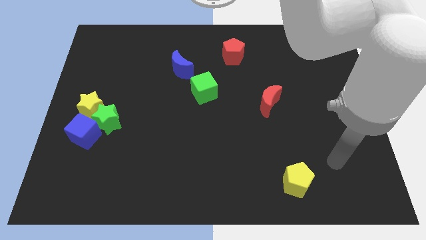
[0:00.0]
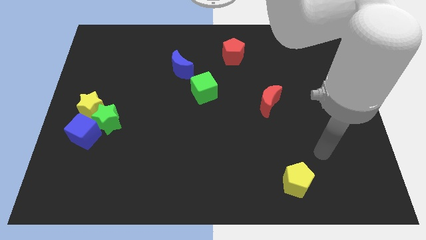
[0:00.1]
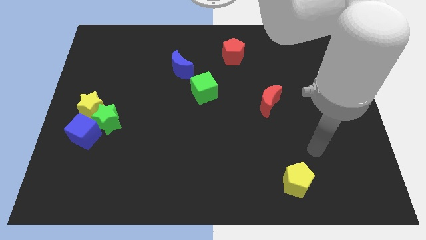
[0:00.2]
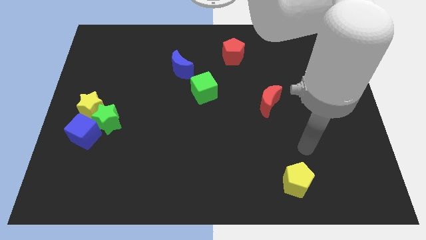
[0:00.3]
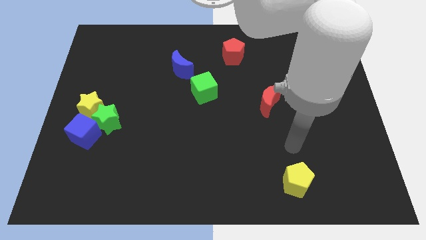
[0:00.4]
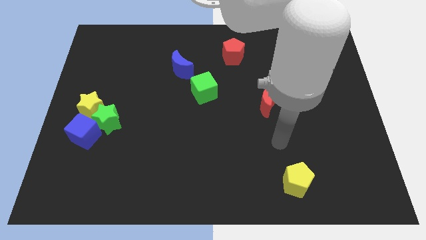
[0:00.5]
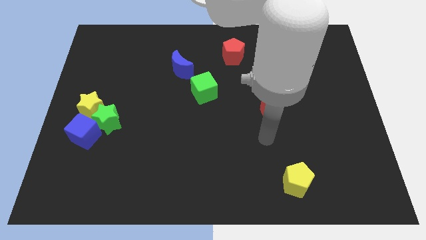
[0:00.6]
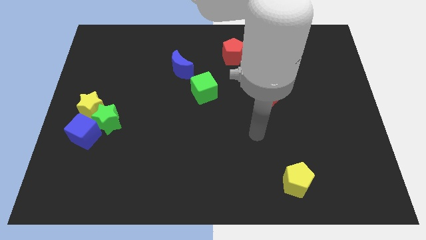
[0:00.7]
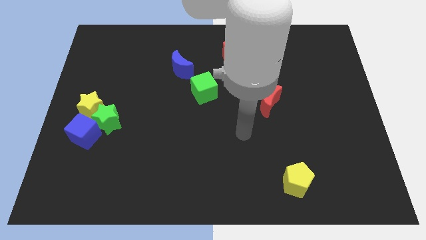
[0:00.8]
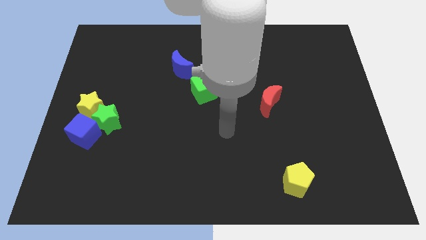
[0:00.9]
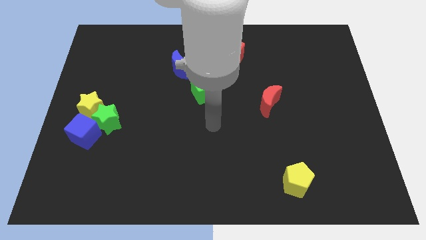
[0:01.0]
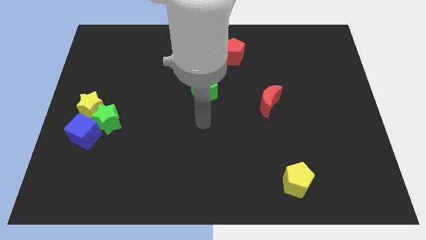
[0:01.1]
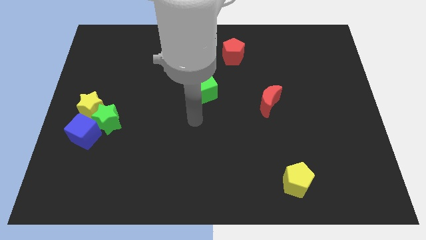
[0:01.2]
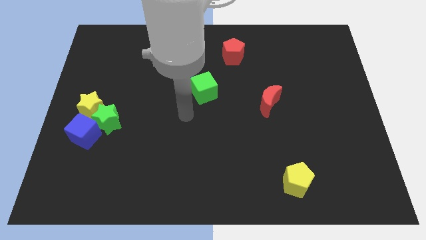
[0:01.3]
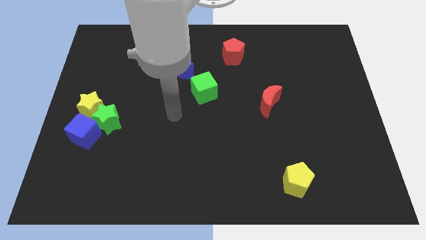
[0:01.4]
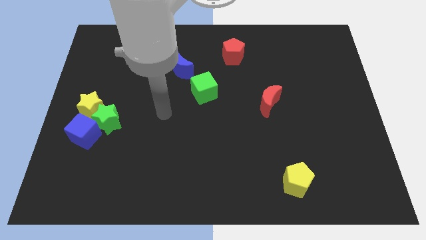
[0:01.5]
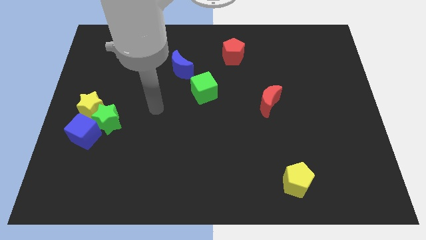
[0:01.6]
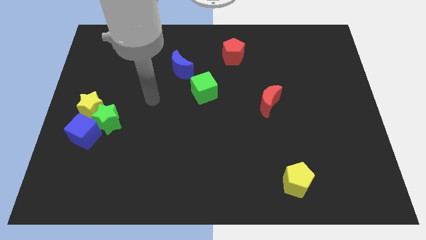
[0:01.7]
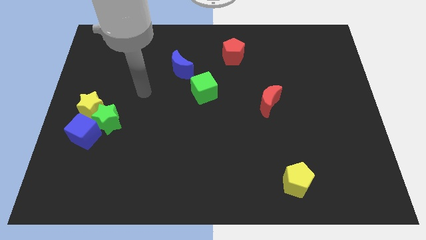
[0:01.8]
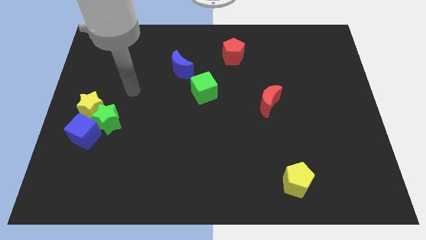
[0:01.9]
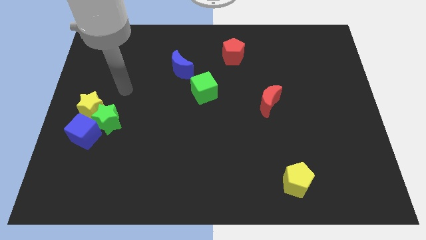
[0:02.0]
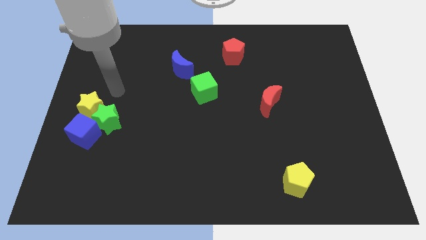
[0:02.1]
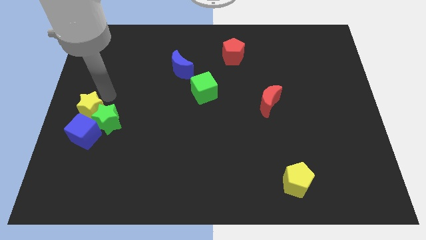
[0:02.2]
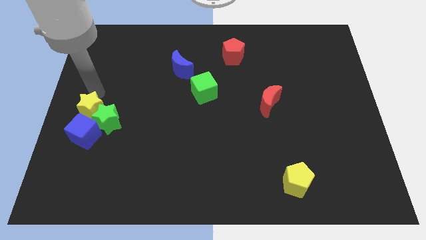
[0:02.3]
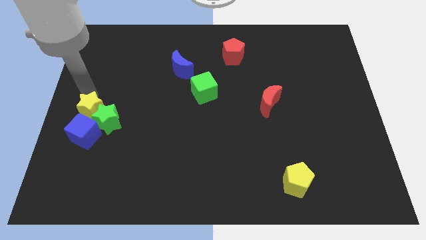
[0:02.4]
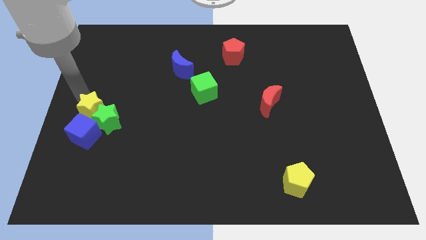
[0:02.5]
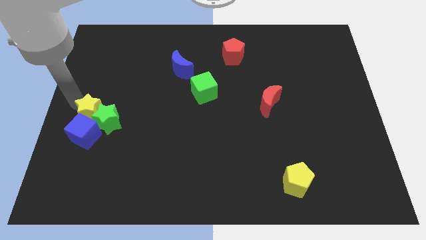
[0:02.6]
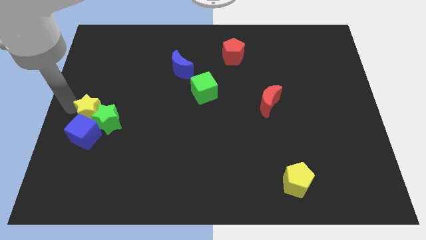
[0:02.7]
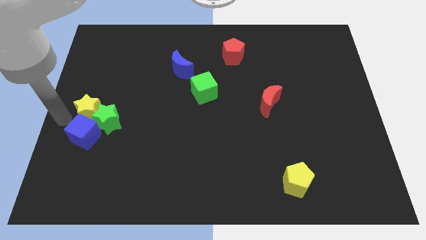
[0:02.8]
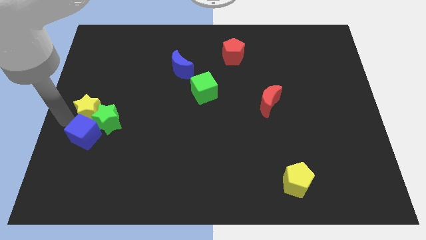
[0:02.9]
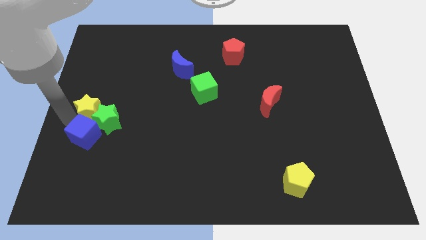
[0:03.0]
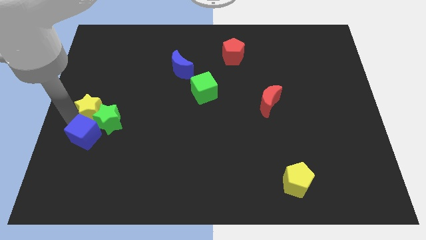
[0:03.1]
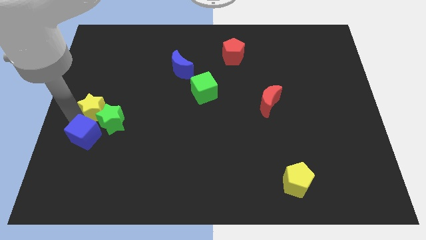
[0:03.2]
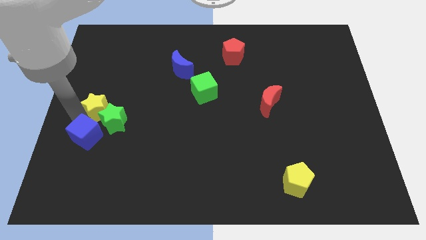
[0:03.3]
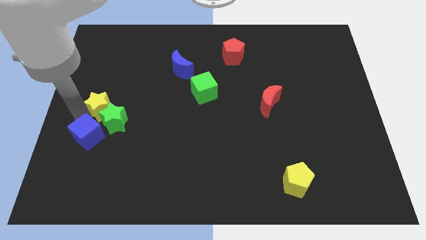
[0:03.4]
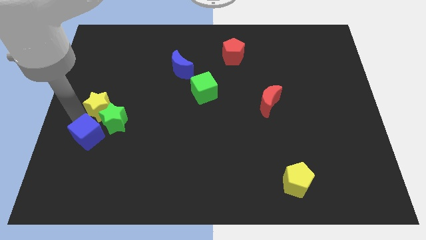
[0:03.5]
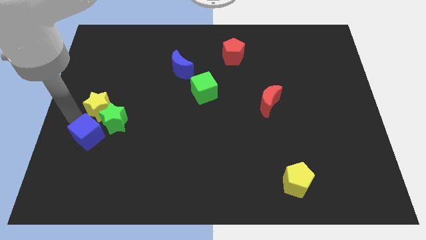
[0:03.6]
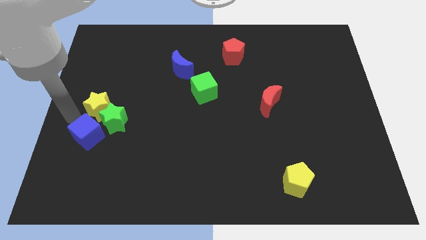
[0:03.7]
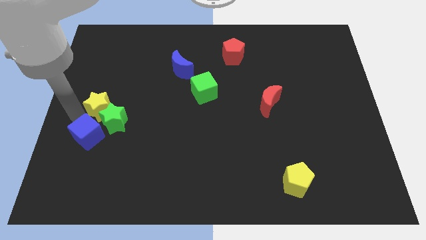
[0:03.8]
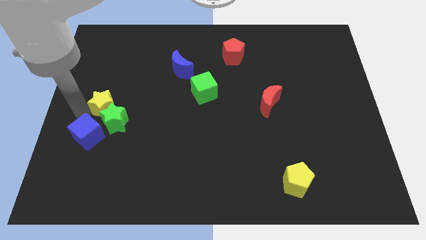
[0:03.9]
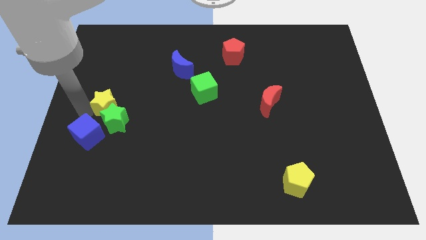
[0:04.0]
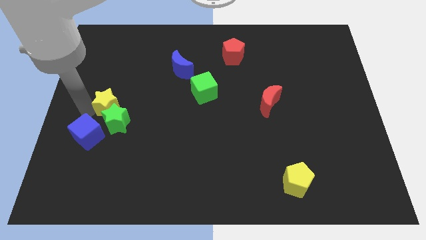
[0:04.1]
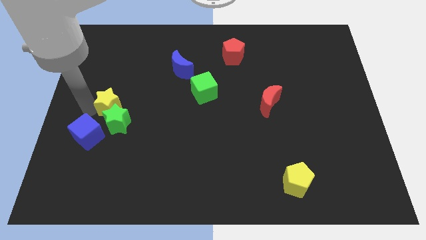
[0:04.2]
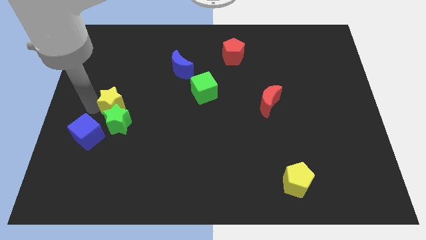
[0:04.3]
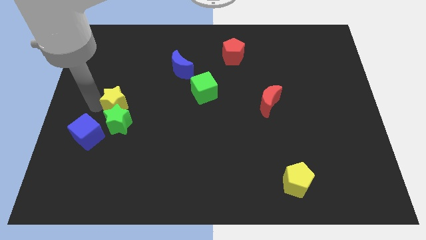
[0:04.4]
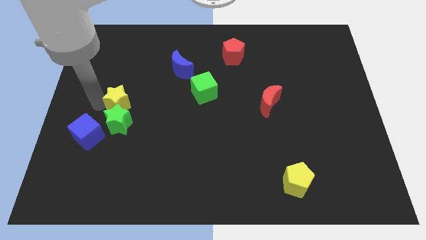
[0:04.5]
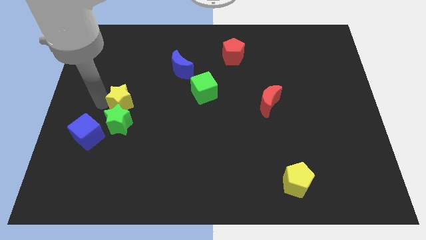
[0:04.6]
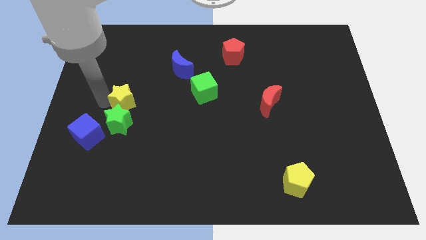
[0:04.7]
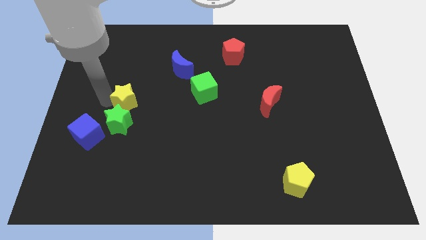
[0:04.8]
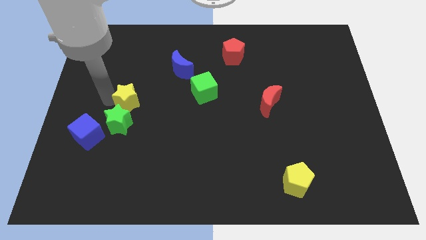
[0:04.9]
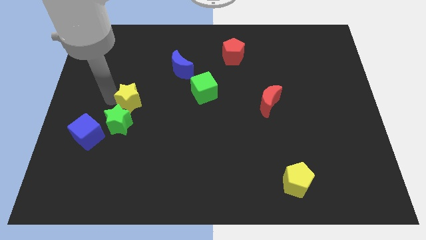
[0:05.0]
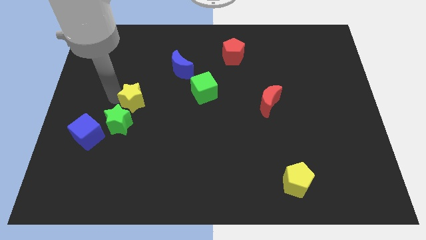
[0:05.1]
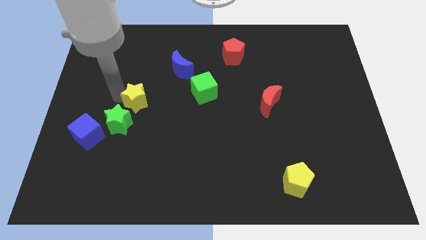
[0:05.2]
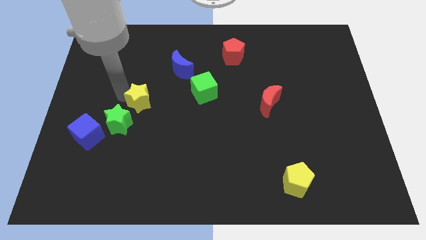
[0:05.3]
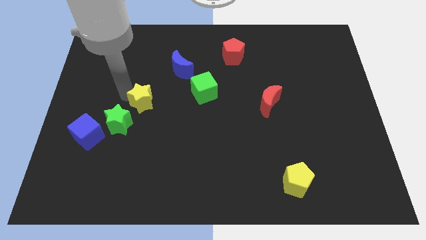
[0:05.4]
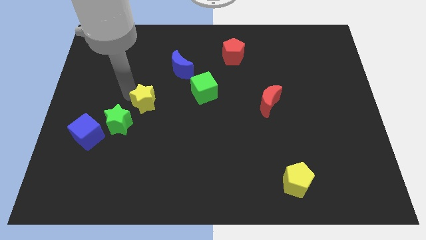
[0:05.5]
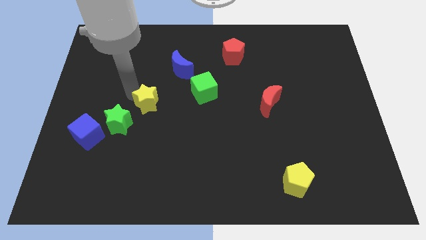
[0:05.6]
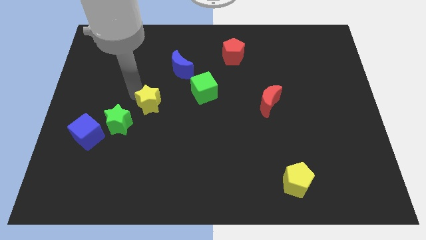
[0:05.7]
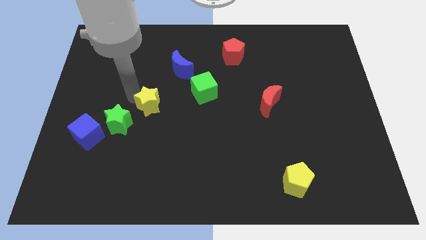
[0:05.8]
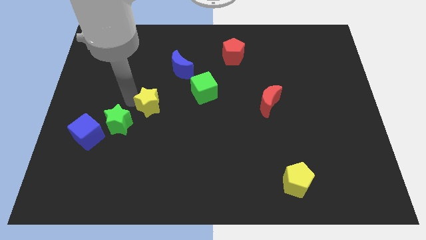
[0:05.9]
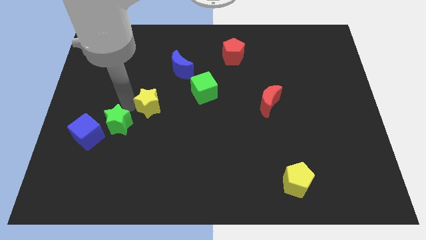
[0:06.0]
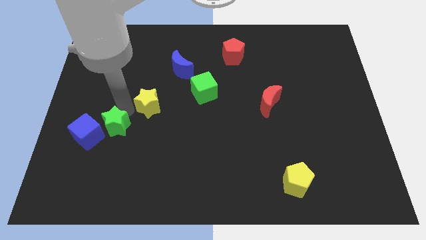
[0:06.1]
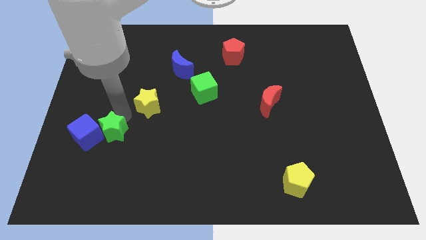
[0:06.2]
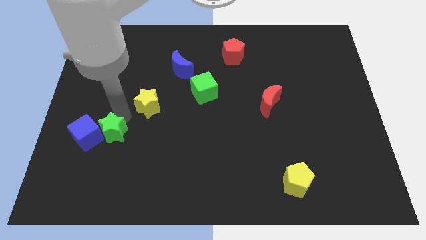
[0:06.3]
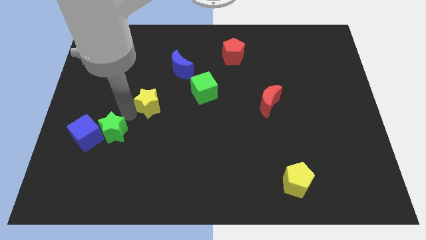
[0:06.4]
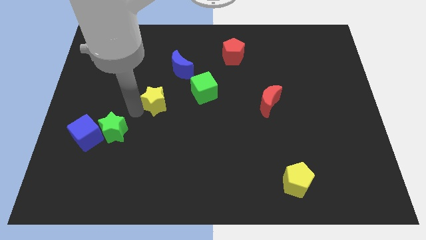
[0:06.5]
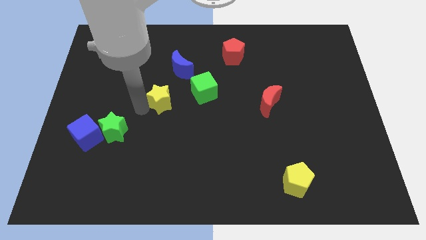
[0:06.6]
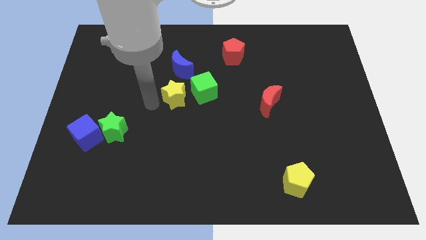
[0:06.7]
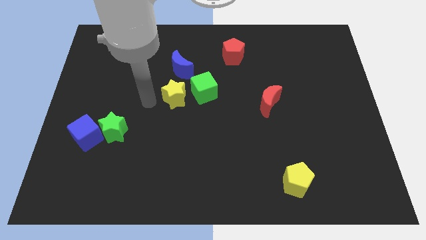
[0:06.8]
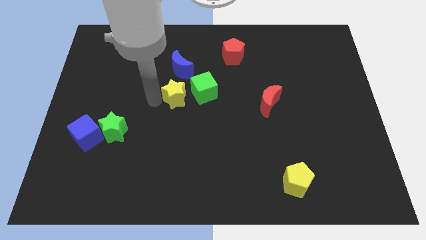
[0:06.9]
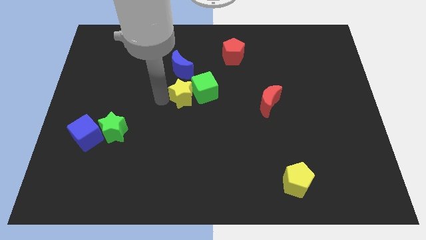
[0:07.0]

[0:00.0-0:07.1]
slide the yellow star to the green cube

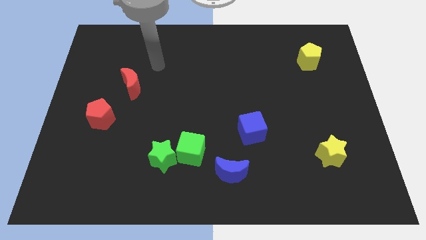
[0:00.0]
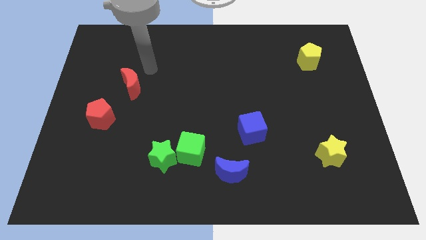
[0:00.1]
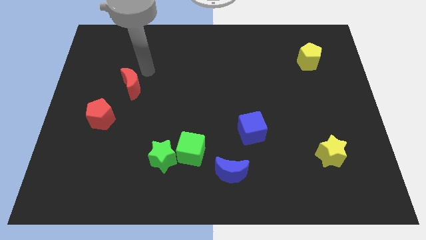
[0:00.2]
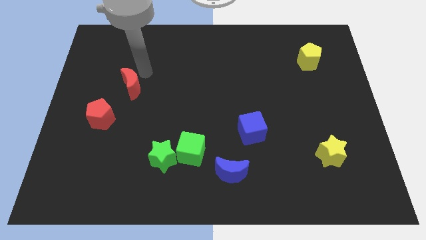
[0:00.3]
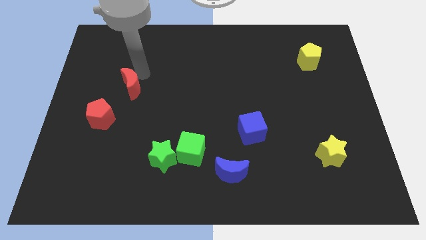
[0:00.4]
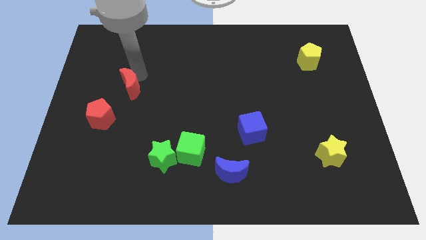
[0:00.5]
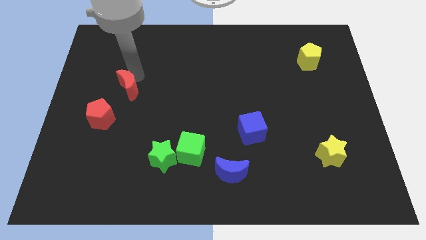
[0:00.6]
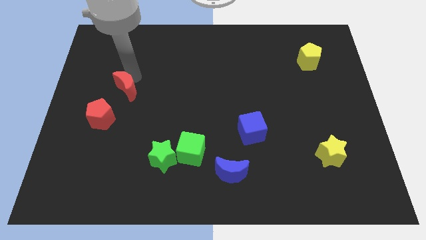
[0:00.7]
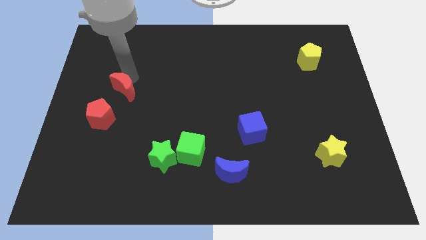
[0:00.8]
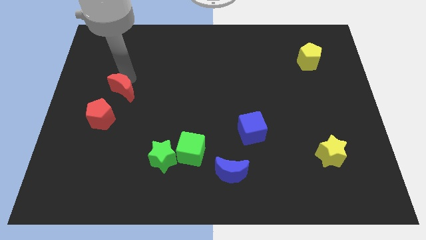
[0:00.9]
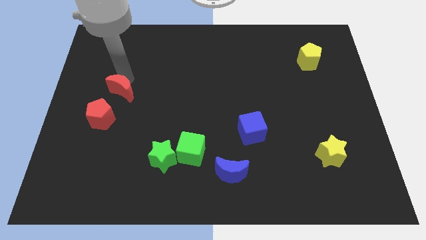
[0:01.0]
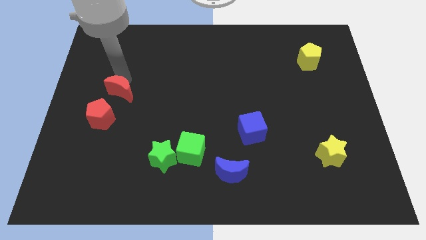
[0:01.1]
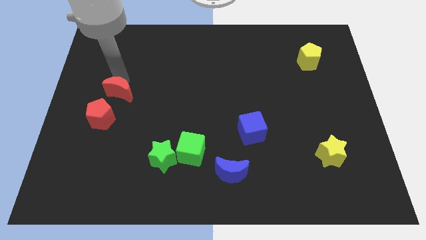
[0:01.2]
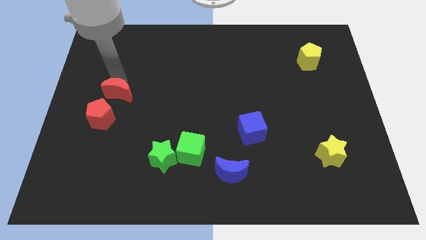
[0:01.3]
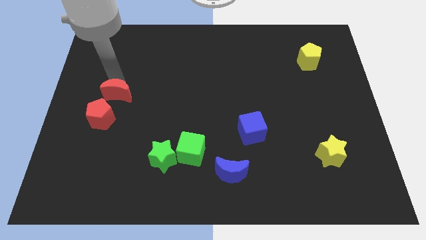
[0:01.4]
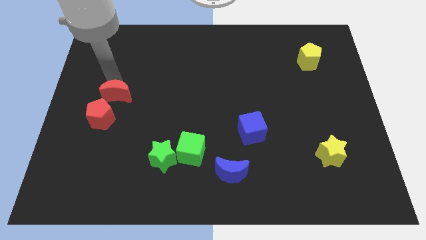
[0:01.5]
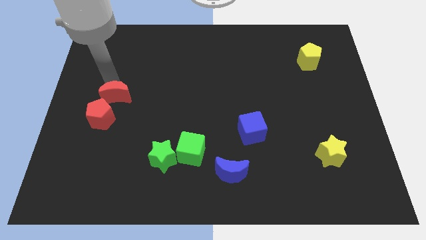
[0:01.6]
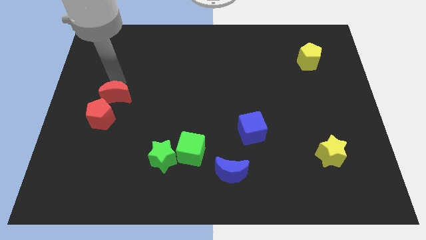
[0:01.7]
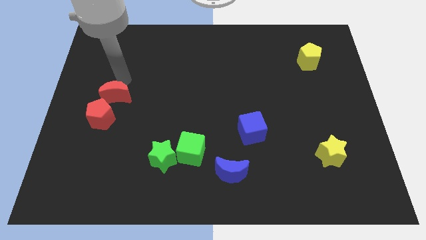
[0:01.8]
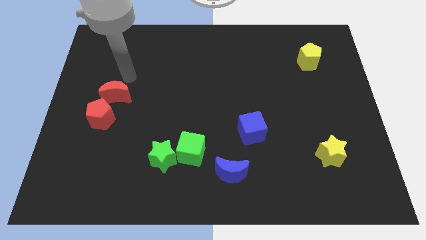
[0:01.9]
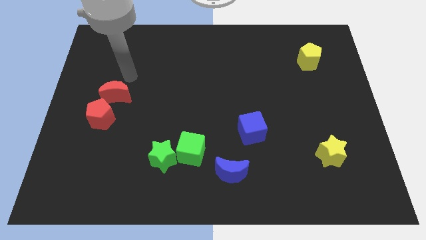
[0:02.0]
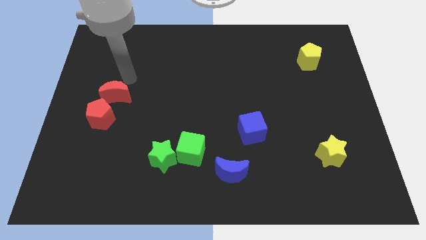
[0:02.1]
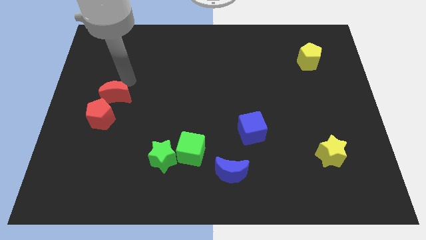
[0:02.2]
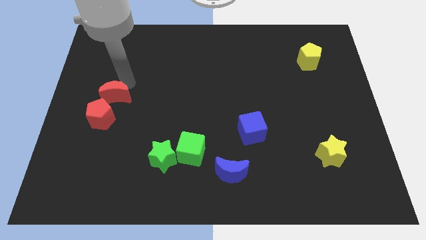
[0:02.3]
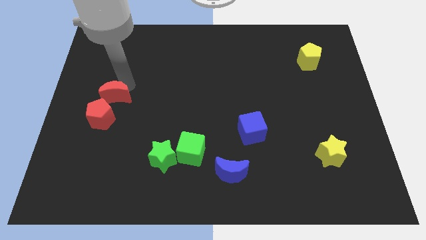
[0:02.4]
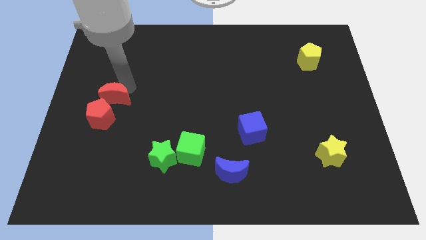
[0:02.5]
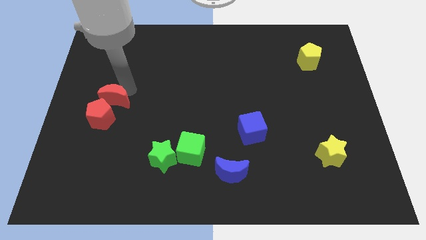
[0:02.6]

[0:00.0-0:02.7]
put the red moon next to the red pentagon
